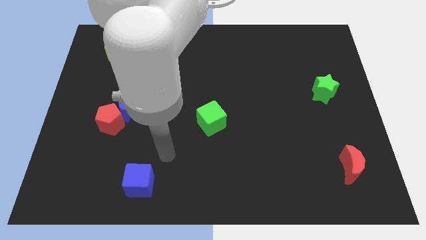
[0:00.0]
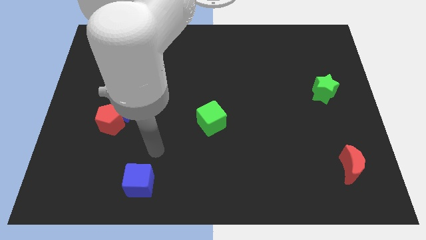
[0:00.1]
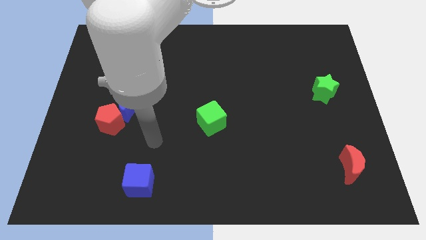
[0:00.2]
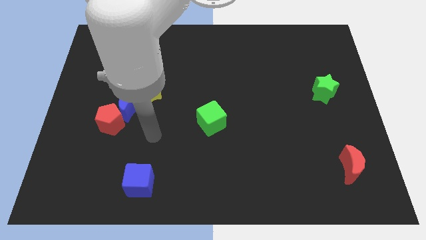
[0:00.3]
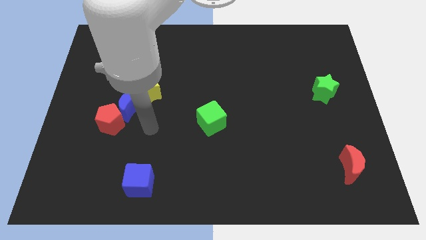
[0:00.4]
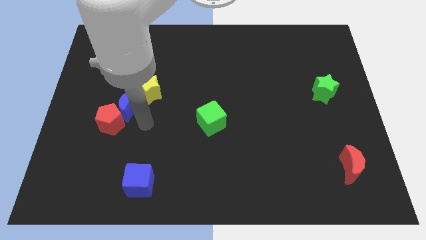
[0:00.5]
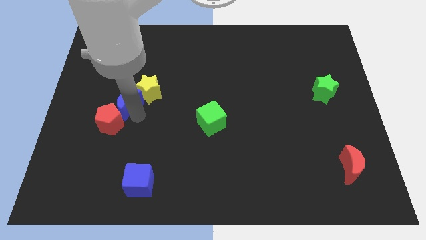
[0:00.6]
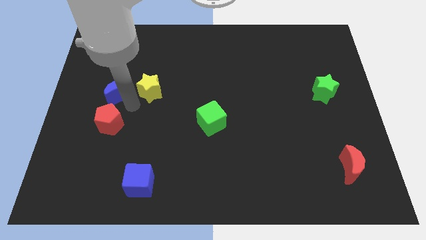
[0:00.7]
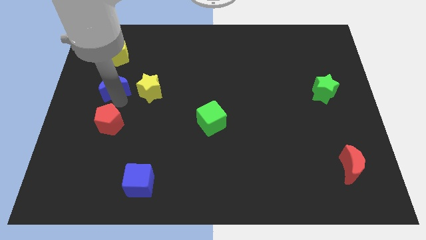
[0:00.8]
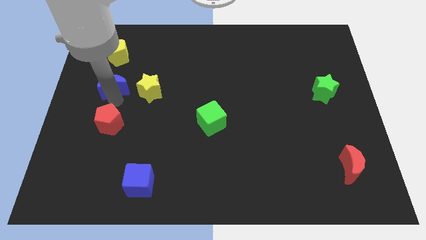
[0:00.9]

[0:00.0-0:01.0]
move the red pentagon away from the blue moon

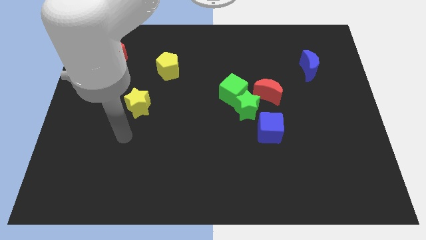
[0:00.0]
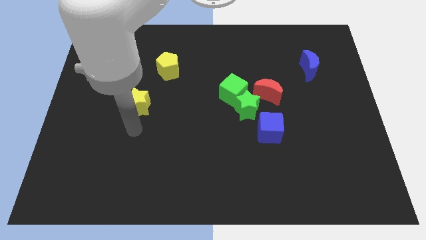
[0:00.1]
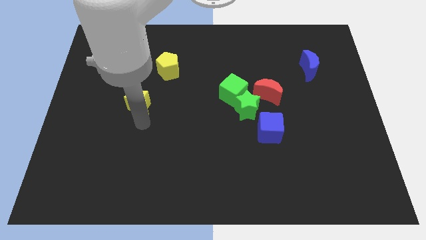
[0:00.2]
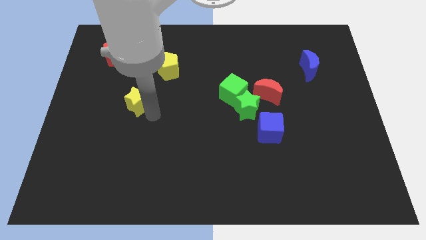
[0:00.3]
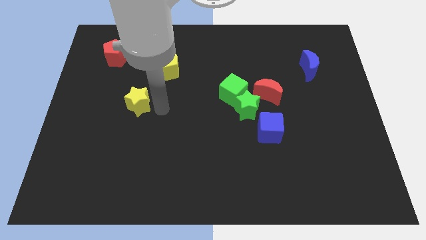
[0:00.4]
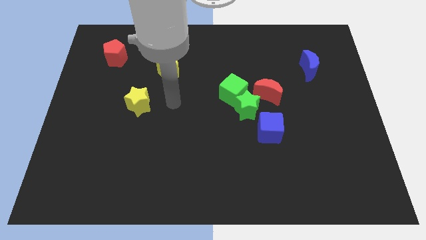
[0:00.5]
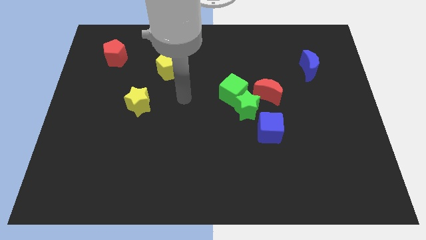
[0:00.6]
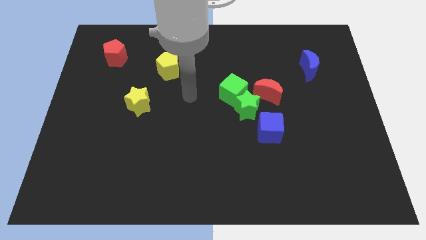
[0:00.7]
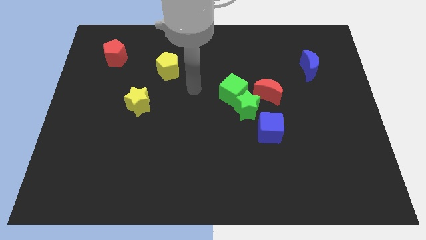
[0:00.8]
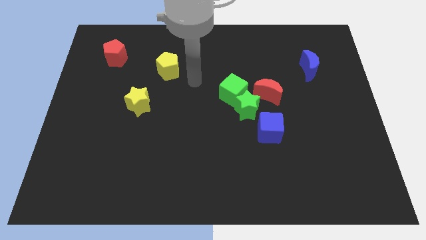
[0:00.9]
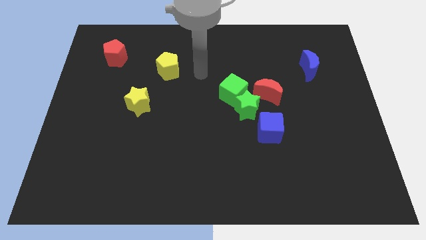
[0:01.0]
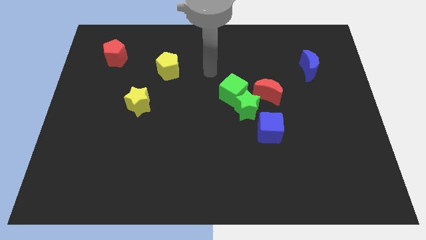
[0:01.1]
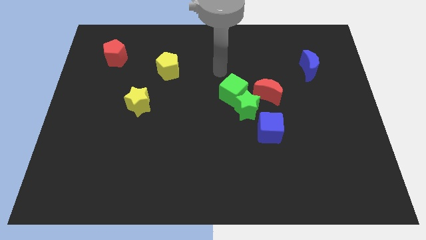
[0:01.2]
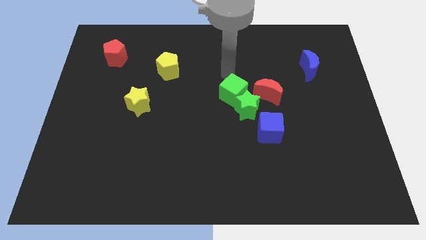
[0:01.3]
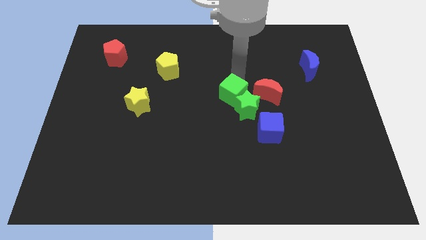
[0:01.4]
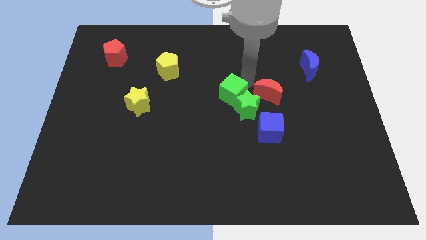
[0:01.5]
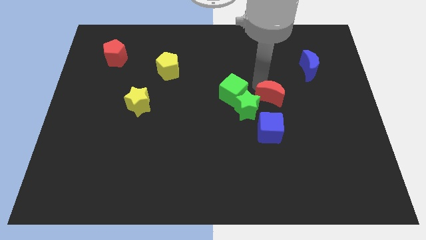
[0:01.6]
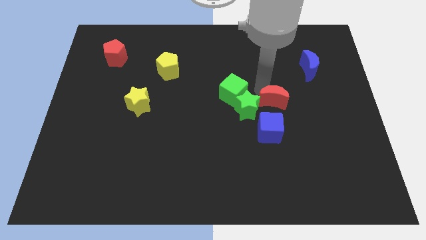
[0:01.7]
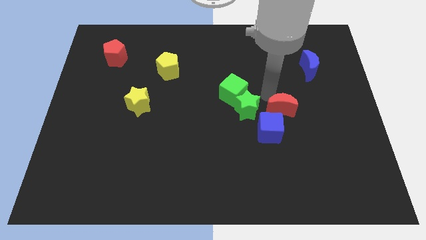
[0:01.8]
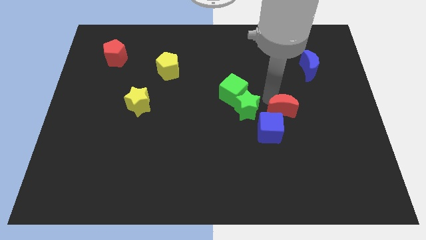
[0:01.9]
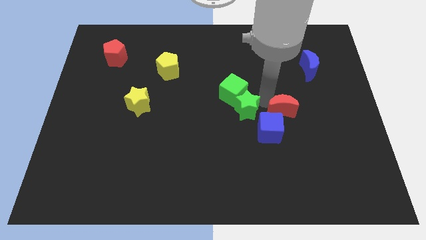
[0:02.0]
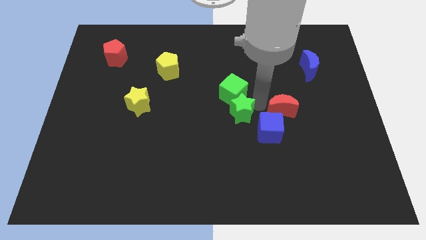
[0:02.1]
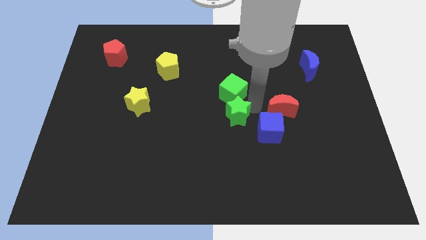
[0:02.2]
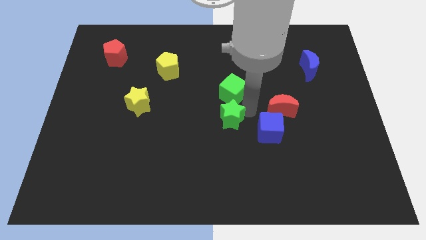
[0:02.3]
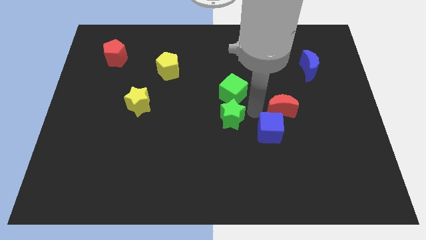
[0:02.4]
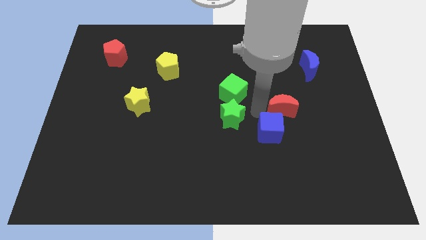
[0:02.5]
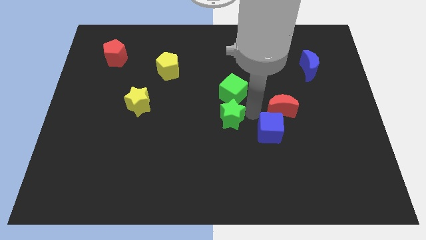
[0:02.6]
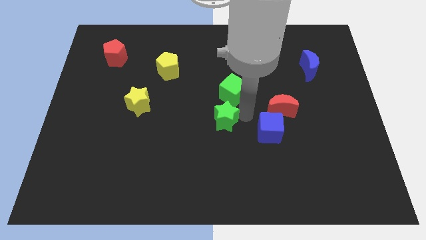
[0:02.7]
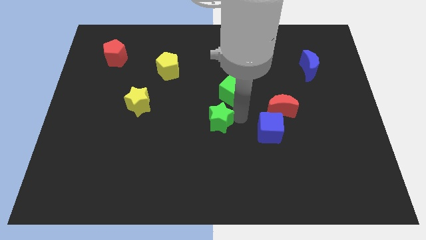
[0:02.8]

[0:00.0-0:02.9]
pull the green star apart from the green cube, red moon, and blue cube

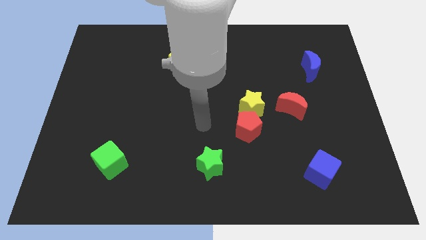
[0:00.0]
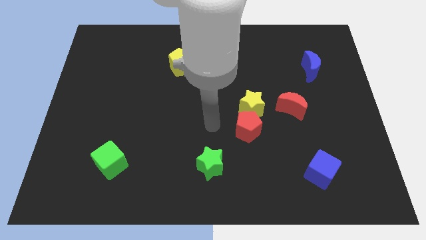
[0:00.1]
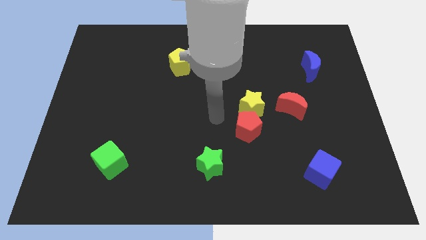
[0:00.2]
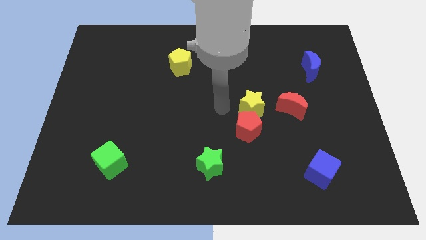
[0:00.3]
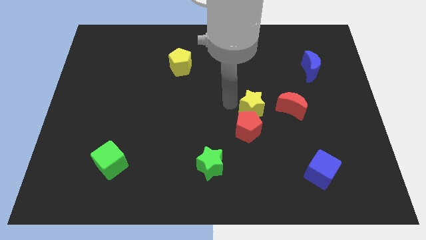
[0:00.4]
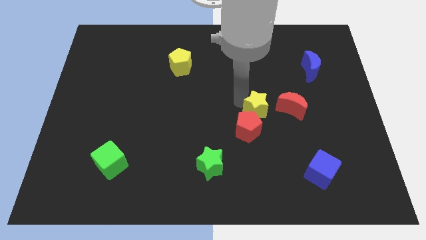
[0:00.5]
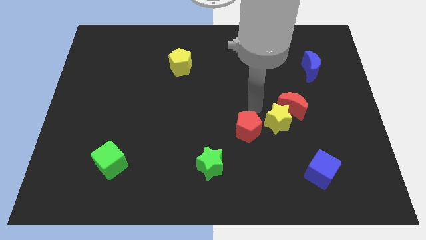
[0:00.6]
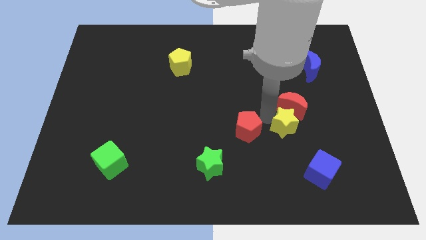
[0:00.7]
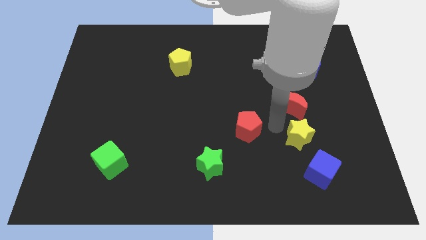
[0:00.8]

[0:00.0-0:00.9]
move the red pentagon away from the yellow star

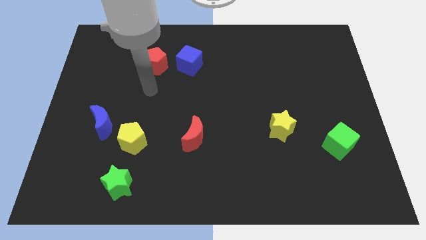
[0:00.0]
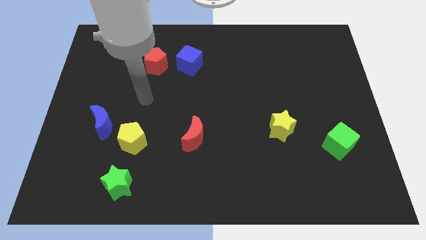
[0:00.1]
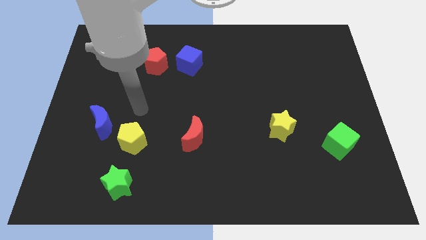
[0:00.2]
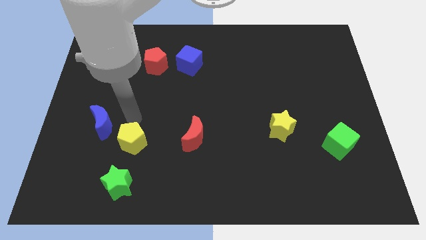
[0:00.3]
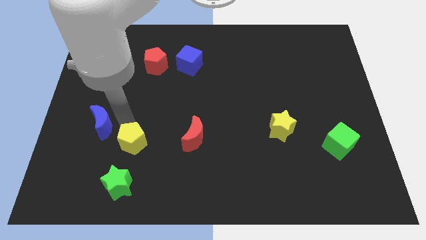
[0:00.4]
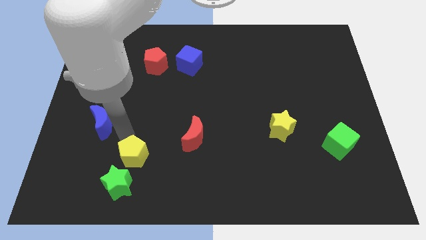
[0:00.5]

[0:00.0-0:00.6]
move the blue moon away from the yellow pentagon

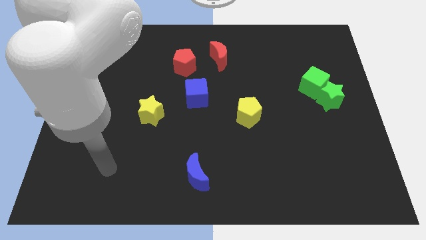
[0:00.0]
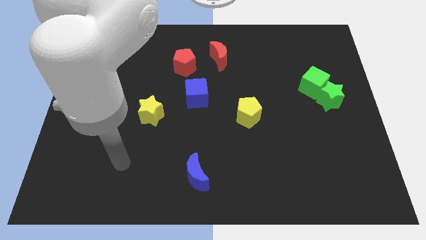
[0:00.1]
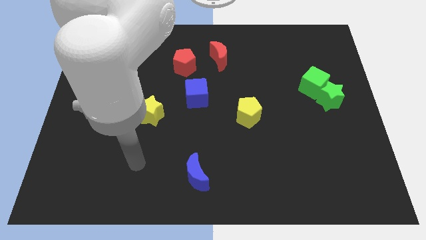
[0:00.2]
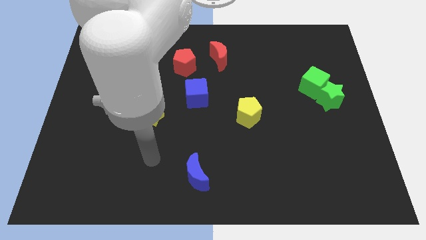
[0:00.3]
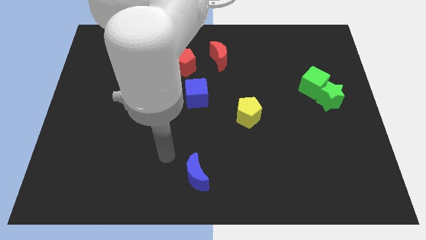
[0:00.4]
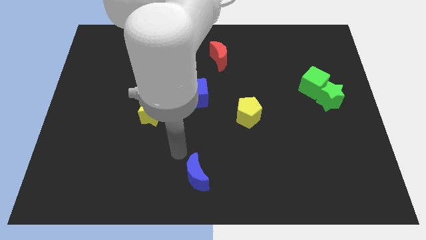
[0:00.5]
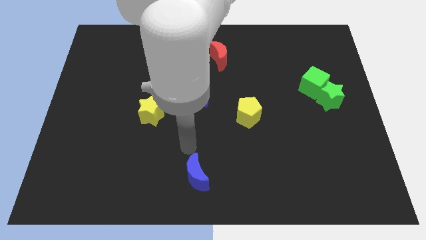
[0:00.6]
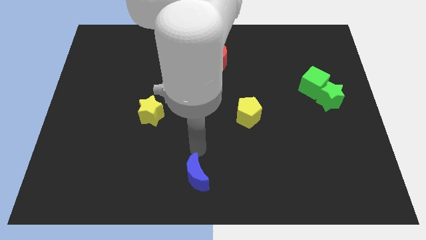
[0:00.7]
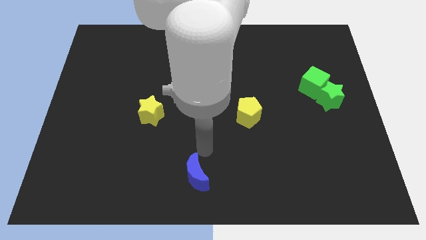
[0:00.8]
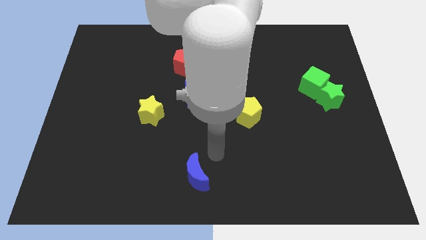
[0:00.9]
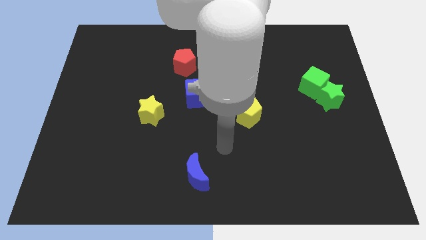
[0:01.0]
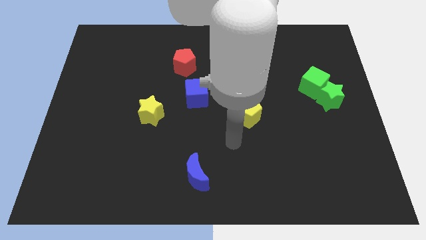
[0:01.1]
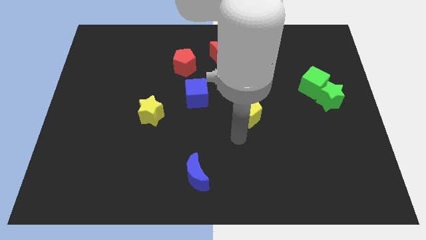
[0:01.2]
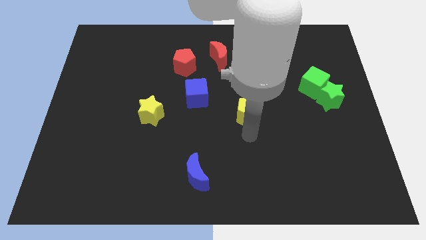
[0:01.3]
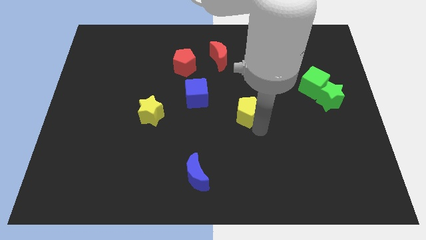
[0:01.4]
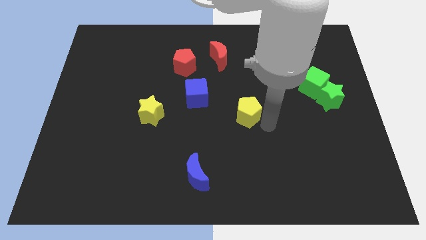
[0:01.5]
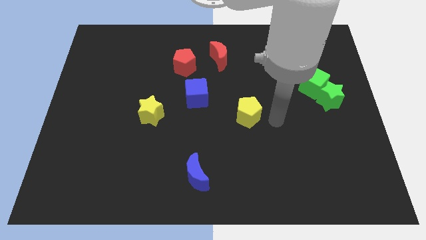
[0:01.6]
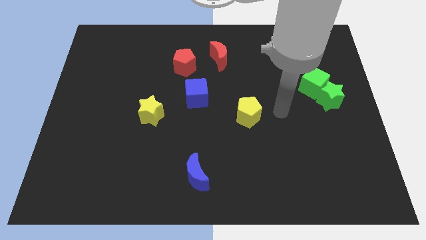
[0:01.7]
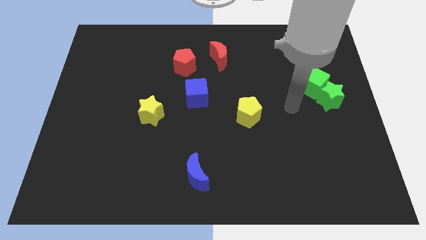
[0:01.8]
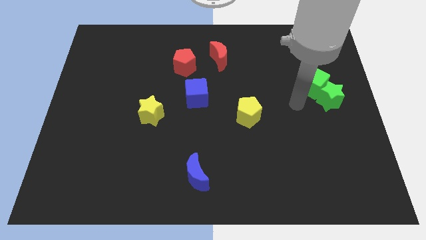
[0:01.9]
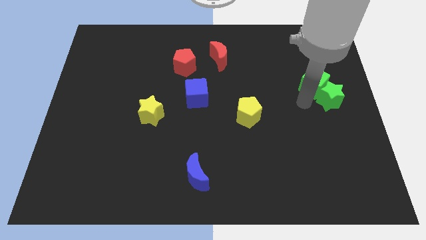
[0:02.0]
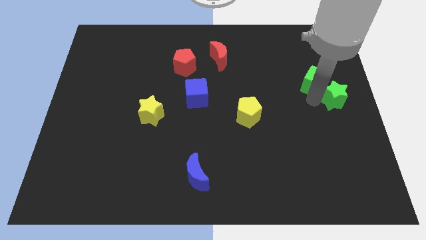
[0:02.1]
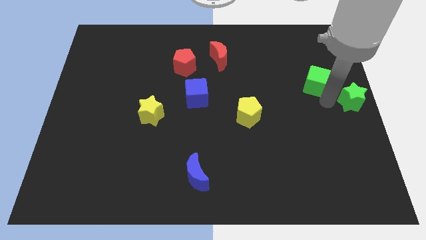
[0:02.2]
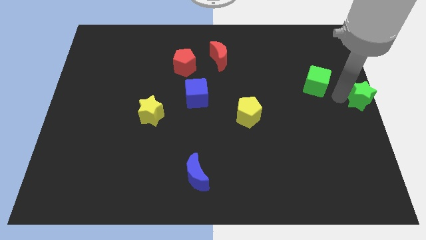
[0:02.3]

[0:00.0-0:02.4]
pull the green cube apart from the green star

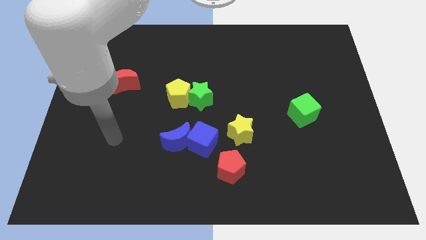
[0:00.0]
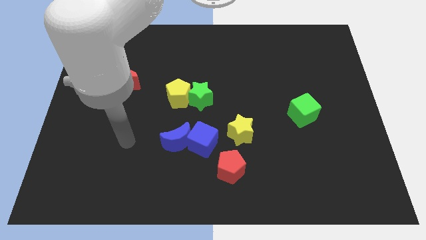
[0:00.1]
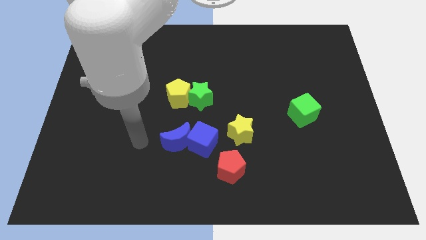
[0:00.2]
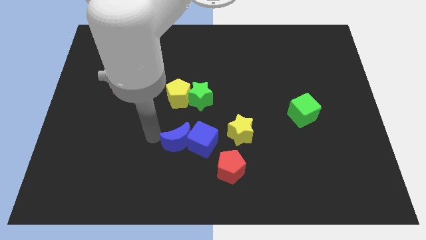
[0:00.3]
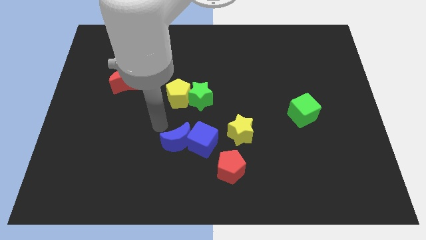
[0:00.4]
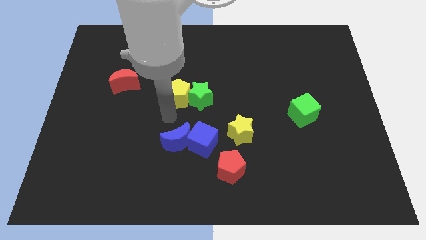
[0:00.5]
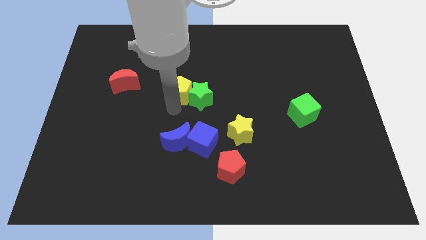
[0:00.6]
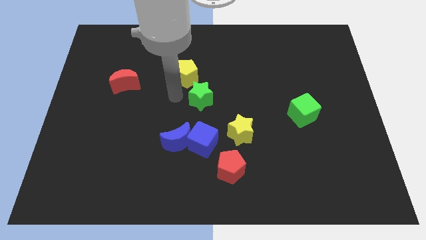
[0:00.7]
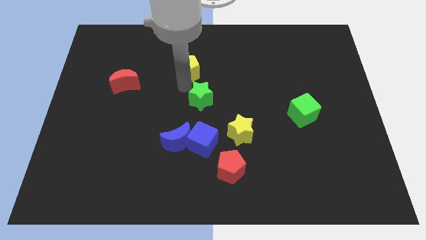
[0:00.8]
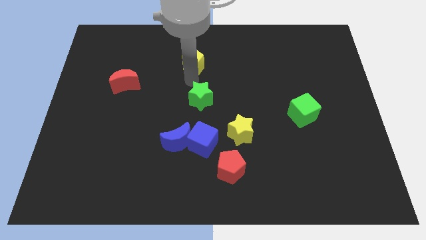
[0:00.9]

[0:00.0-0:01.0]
separate the green star from the yellow pentagon

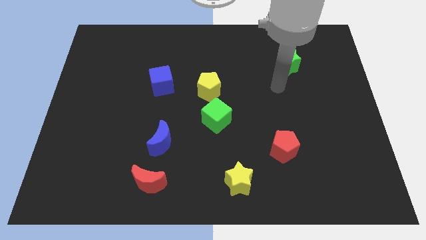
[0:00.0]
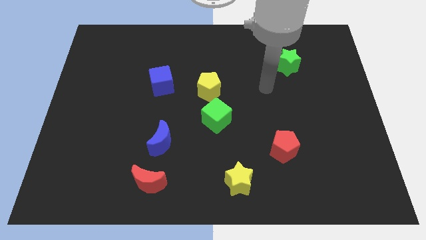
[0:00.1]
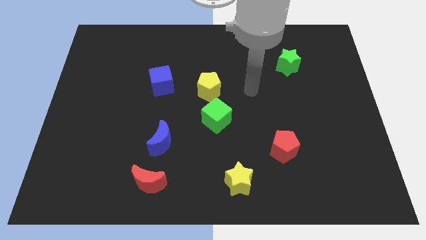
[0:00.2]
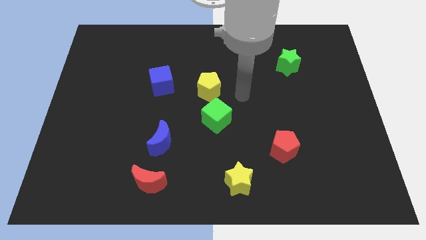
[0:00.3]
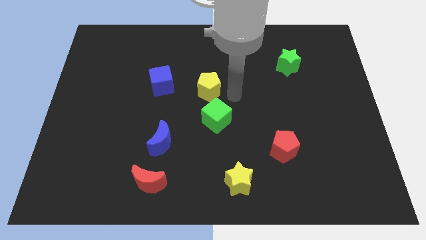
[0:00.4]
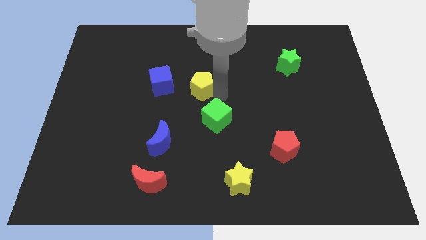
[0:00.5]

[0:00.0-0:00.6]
pull the green cube apart from the yellow pentagon
